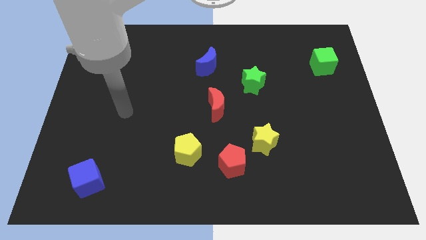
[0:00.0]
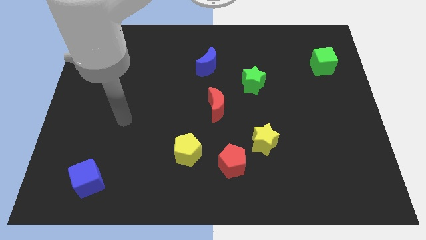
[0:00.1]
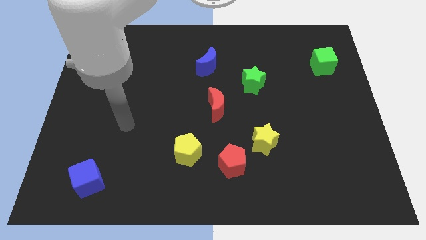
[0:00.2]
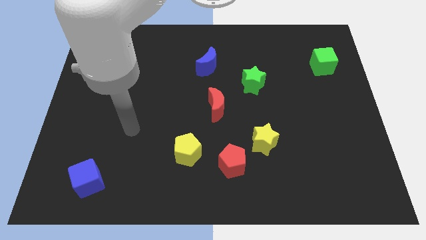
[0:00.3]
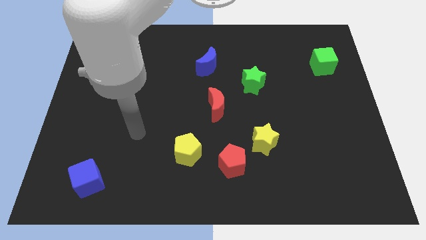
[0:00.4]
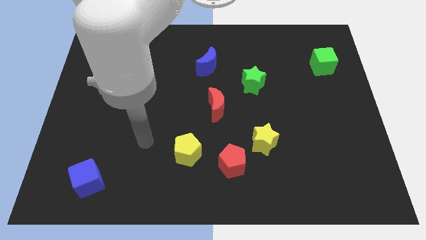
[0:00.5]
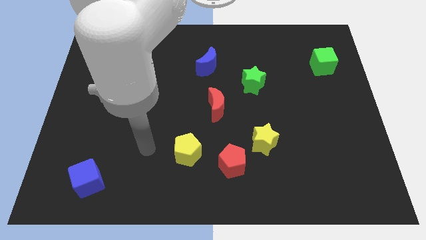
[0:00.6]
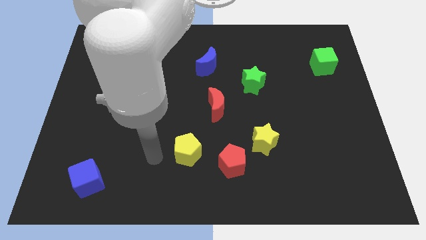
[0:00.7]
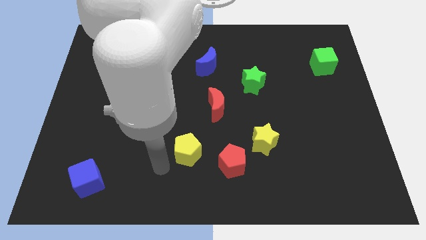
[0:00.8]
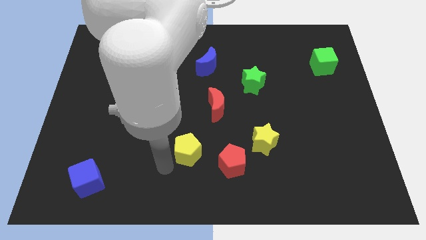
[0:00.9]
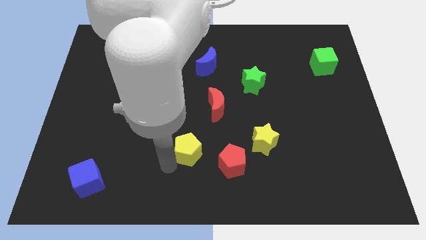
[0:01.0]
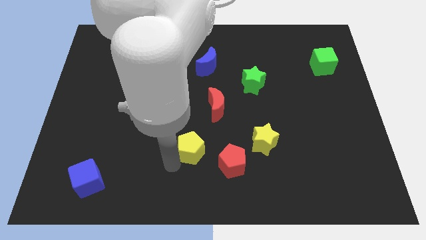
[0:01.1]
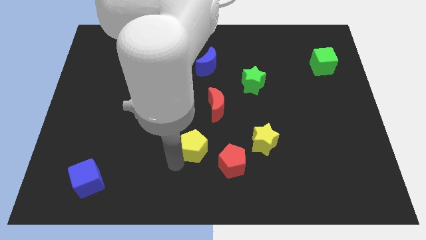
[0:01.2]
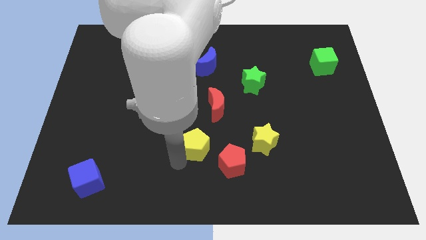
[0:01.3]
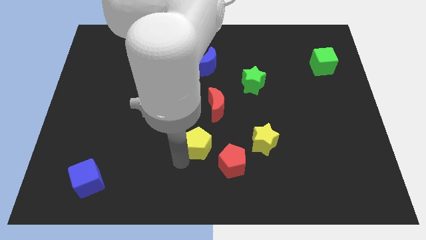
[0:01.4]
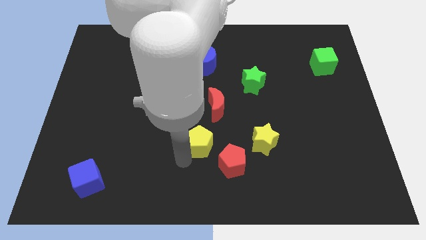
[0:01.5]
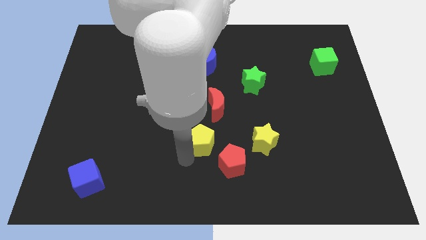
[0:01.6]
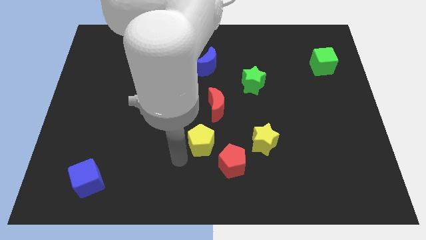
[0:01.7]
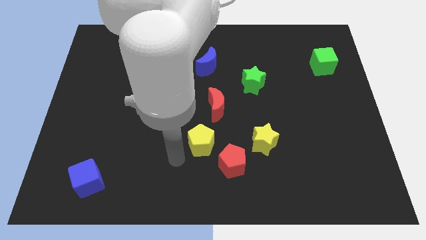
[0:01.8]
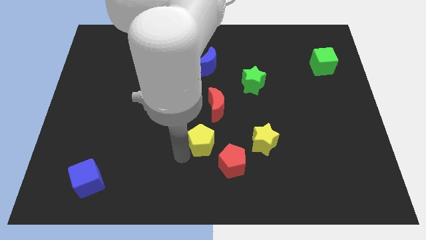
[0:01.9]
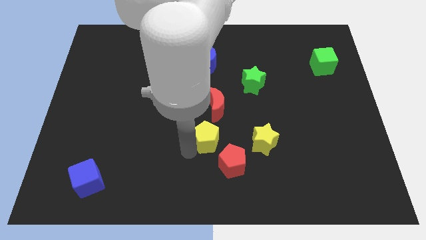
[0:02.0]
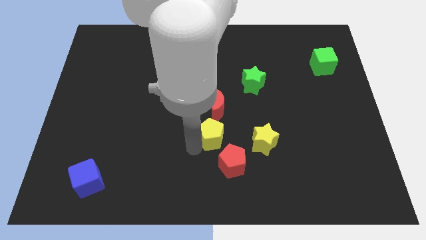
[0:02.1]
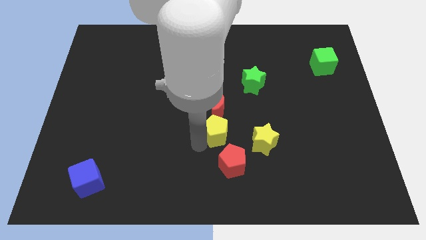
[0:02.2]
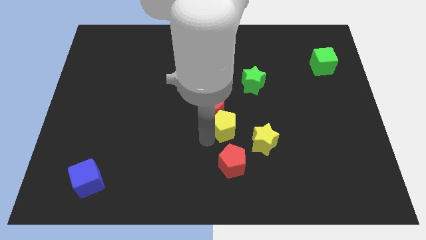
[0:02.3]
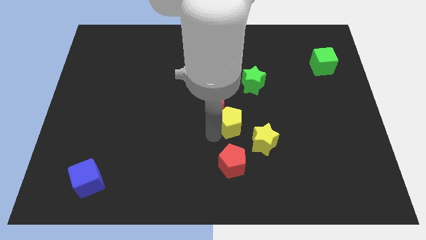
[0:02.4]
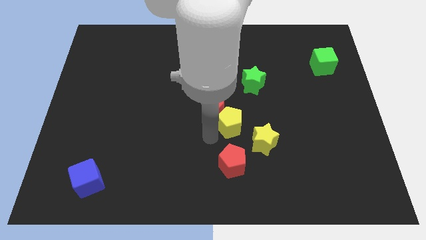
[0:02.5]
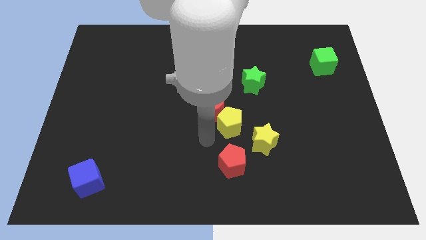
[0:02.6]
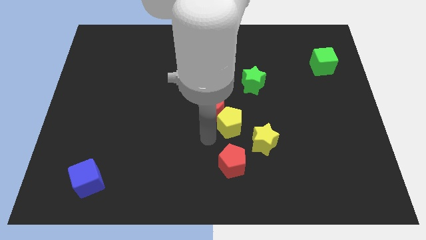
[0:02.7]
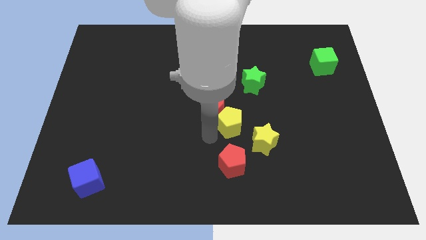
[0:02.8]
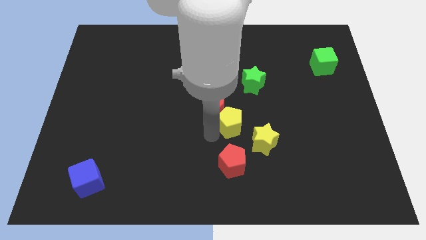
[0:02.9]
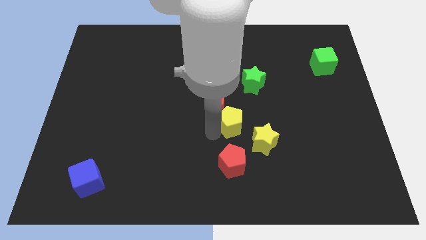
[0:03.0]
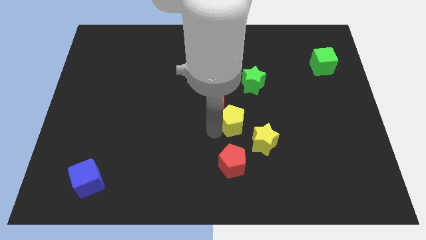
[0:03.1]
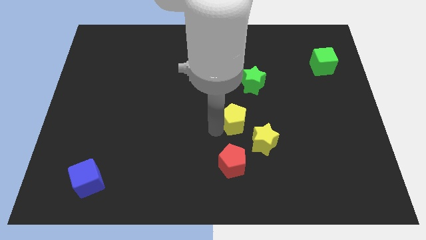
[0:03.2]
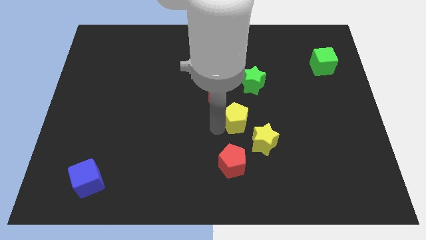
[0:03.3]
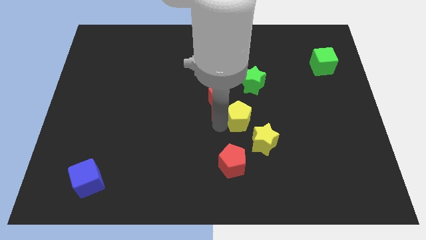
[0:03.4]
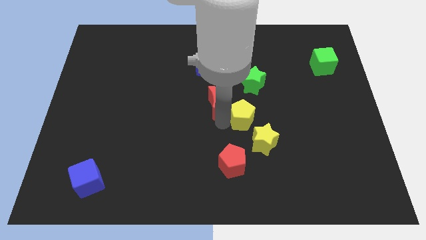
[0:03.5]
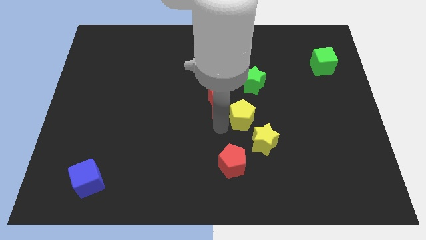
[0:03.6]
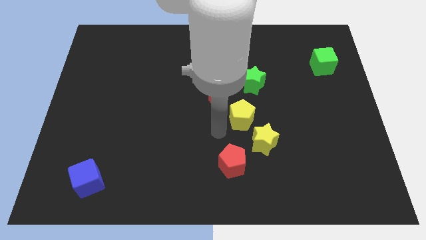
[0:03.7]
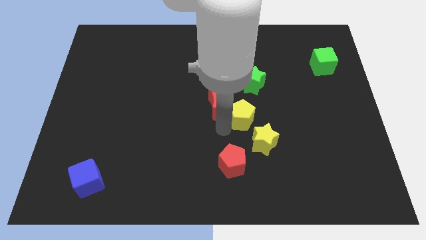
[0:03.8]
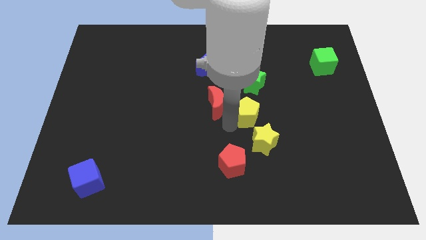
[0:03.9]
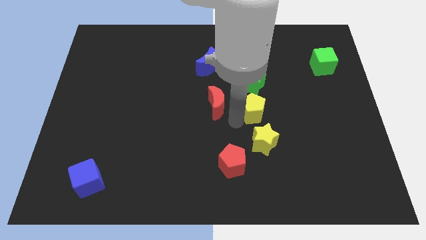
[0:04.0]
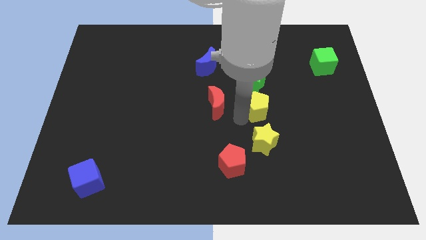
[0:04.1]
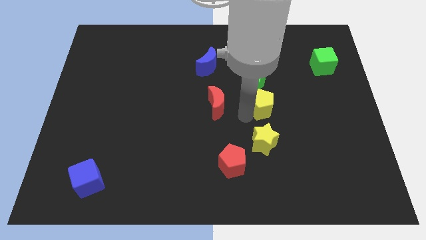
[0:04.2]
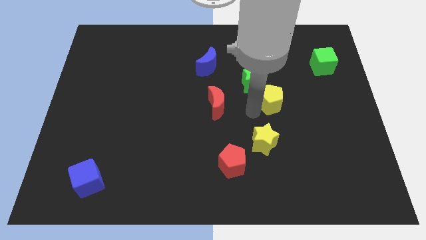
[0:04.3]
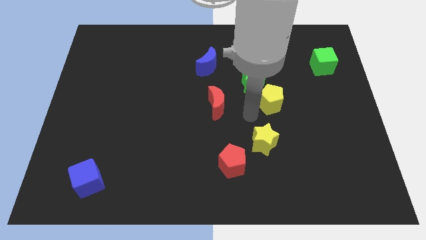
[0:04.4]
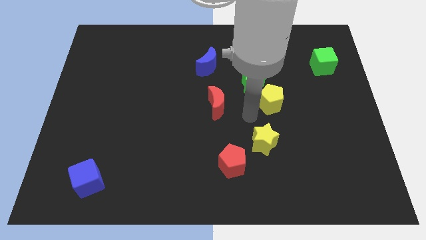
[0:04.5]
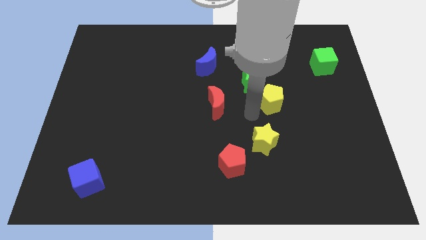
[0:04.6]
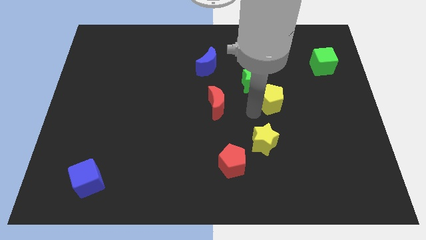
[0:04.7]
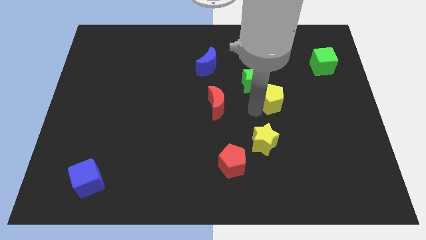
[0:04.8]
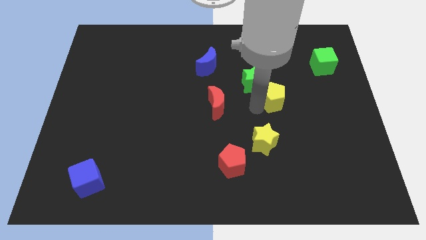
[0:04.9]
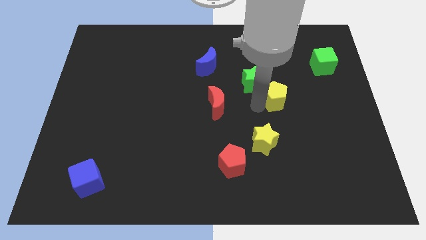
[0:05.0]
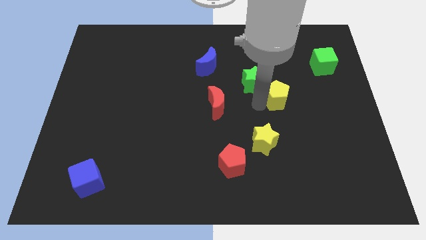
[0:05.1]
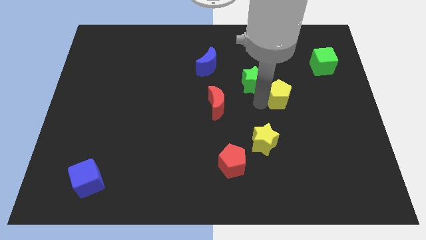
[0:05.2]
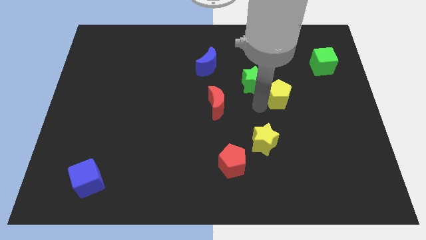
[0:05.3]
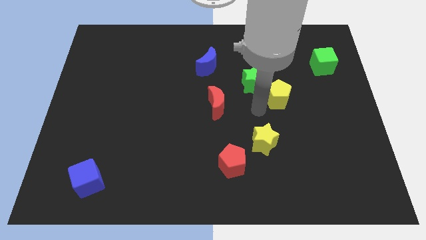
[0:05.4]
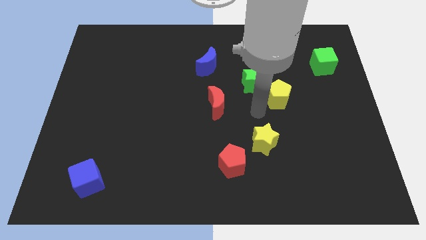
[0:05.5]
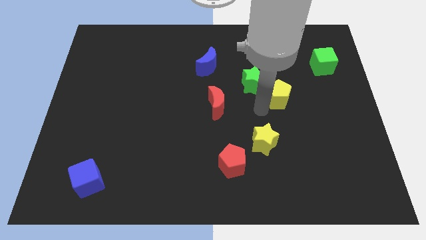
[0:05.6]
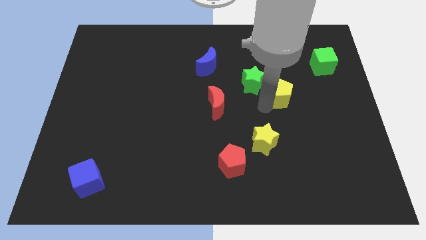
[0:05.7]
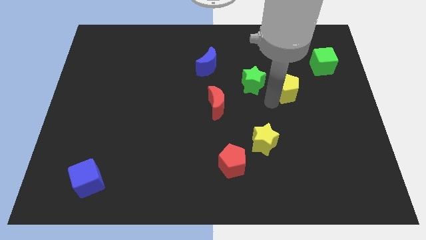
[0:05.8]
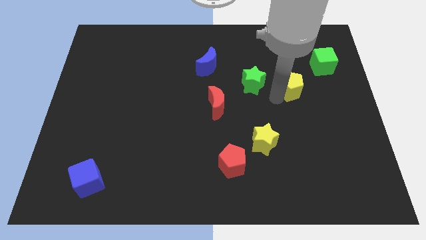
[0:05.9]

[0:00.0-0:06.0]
push the yellow pentagon to the bottom left side of the green cube
